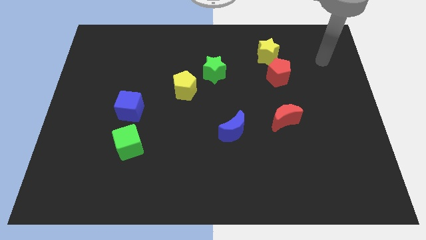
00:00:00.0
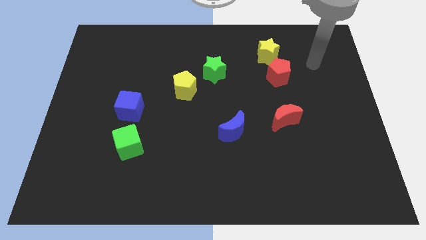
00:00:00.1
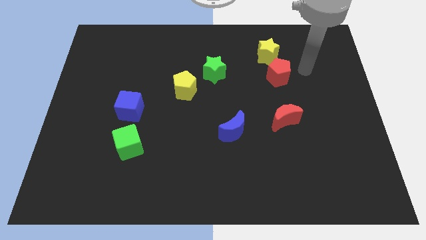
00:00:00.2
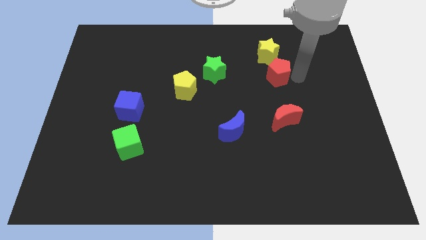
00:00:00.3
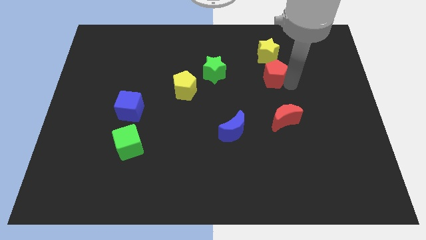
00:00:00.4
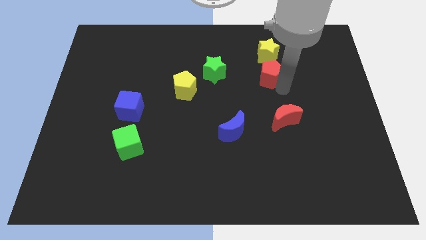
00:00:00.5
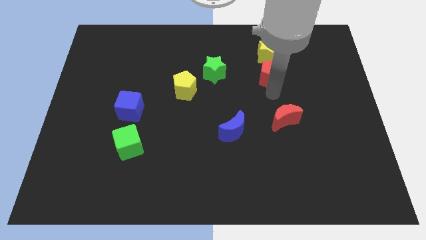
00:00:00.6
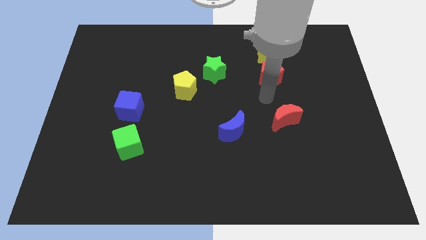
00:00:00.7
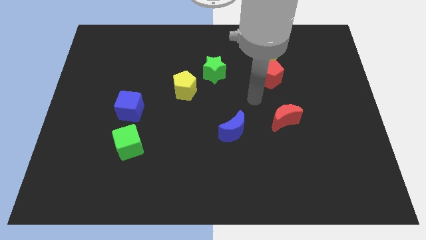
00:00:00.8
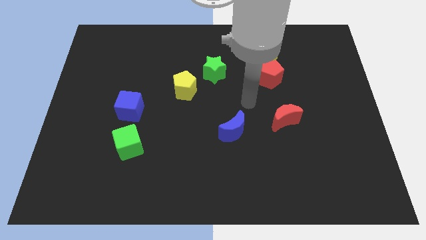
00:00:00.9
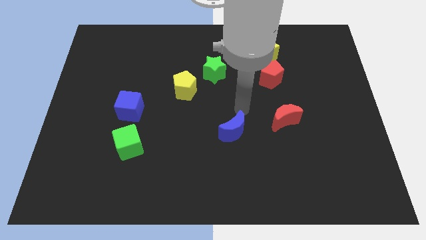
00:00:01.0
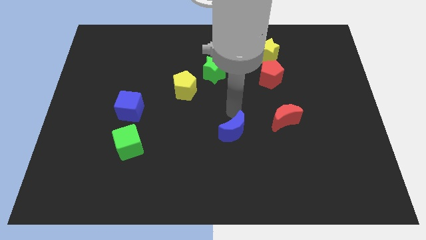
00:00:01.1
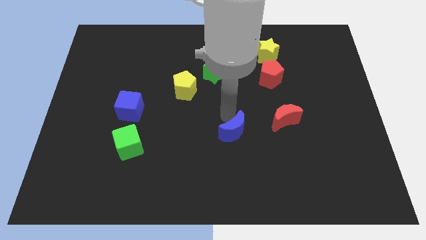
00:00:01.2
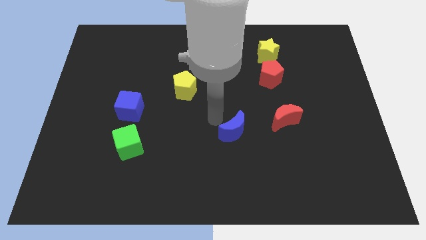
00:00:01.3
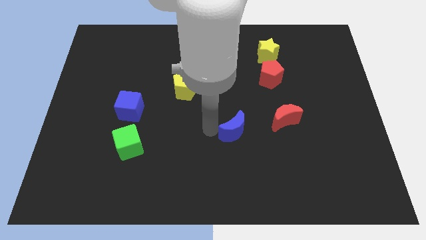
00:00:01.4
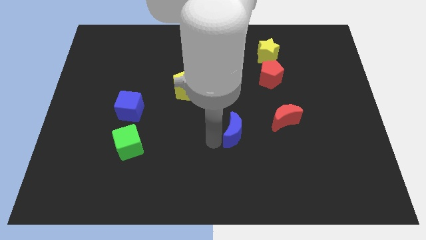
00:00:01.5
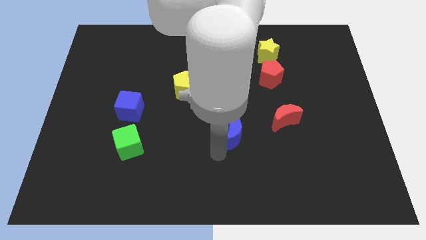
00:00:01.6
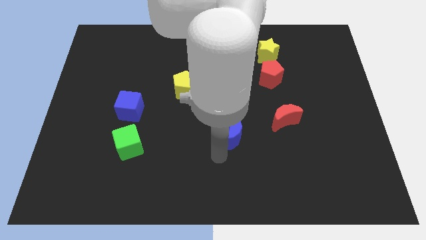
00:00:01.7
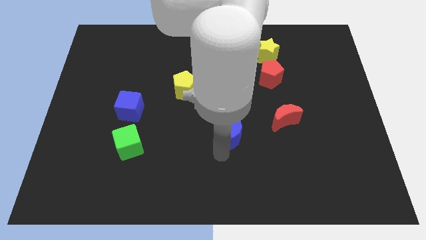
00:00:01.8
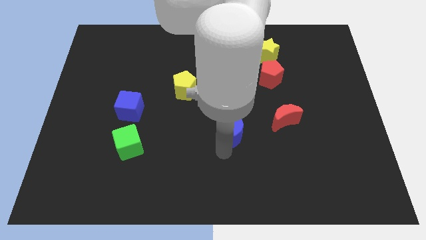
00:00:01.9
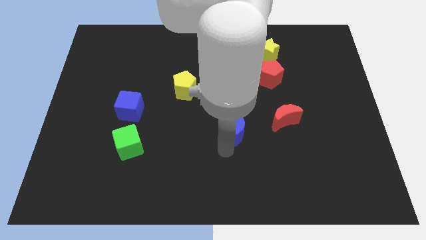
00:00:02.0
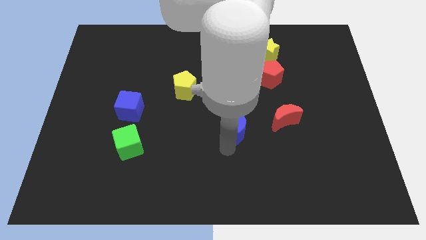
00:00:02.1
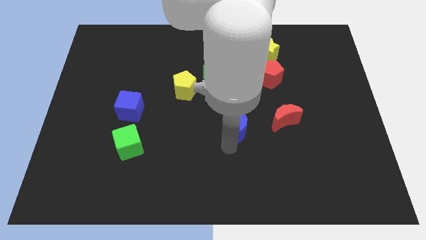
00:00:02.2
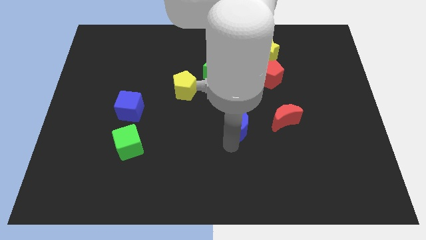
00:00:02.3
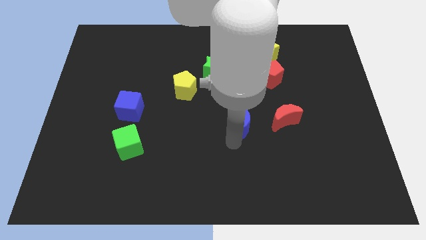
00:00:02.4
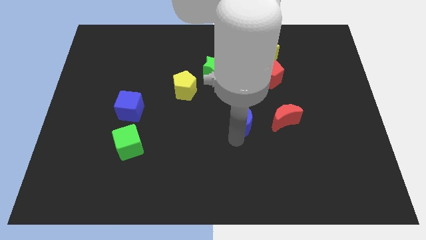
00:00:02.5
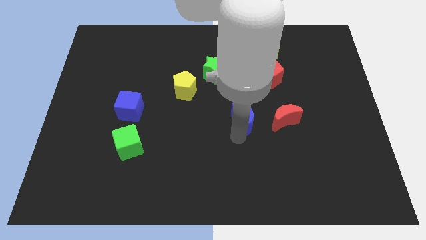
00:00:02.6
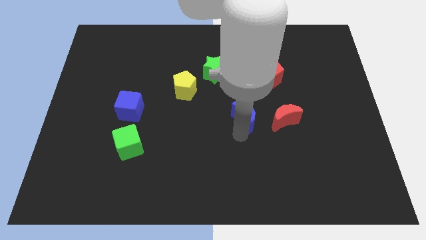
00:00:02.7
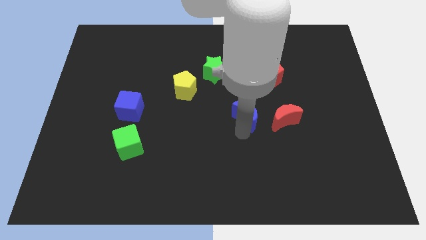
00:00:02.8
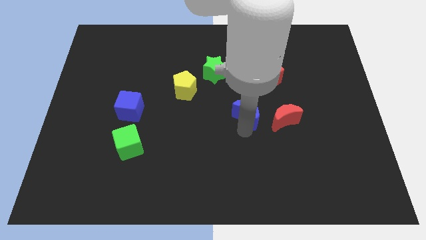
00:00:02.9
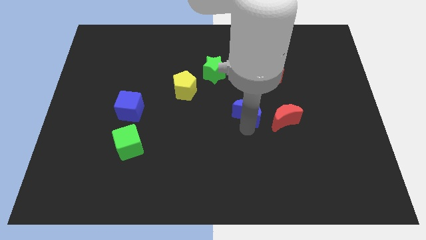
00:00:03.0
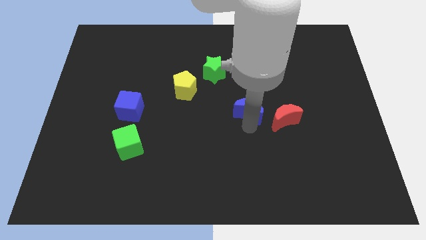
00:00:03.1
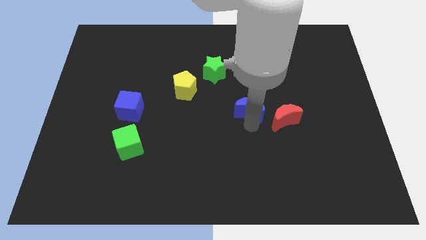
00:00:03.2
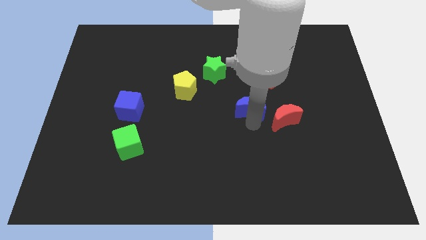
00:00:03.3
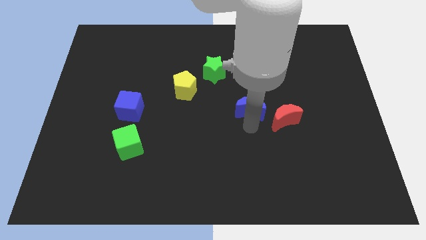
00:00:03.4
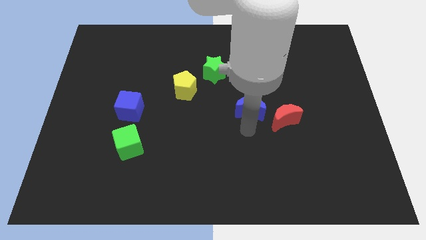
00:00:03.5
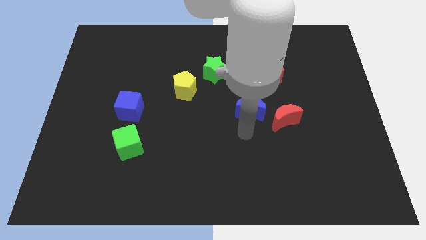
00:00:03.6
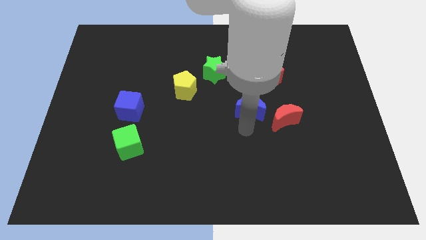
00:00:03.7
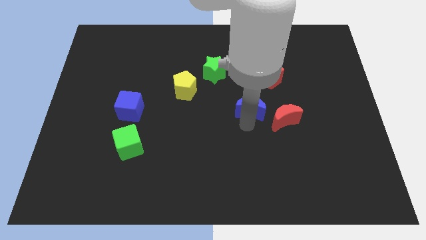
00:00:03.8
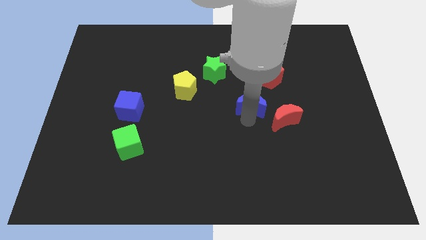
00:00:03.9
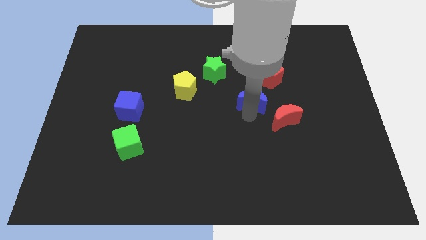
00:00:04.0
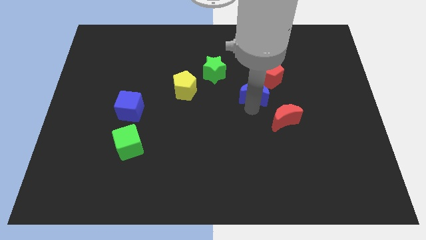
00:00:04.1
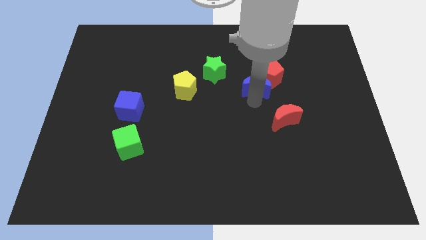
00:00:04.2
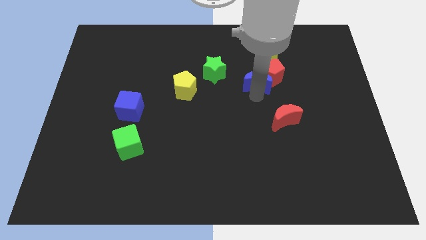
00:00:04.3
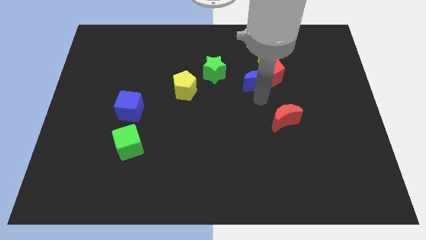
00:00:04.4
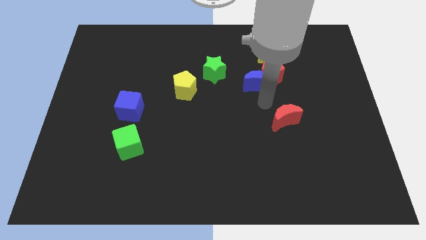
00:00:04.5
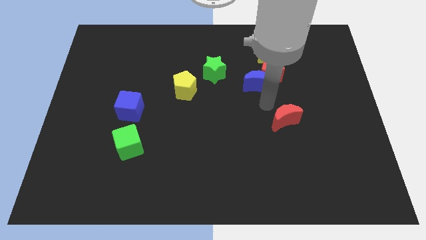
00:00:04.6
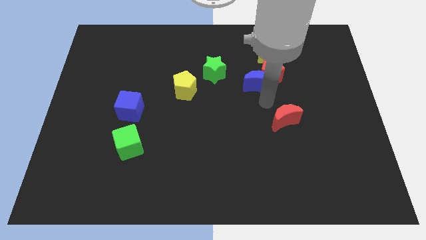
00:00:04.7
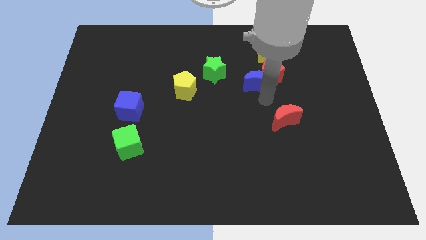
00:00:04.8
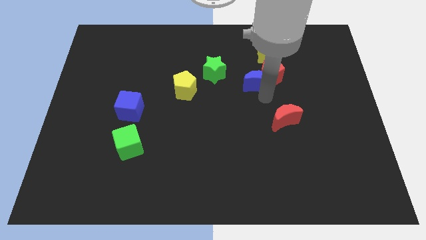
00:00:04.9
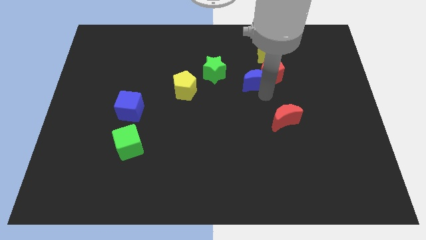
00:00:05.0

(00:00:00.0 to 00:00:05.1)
push the blue moon diagonally down and to the left of the yellow star

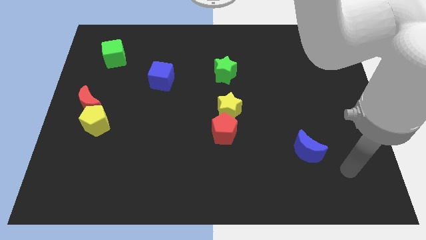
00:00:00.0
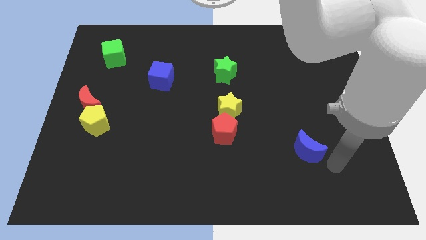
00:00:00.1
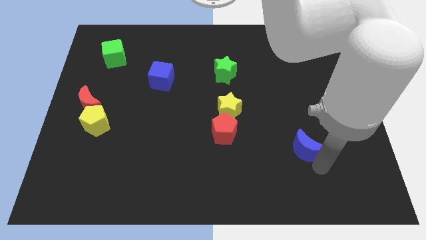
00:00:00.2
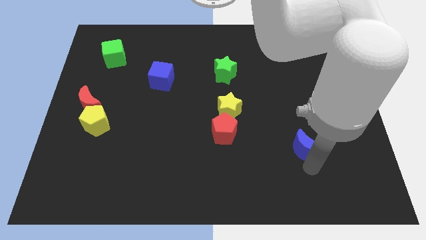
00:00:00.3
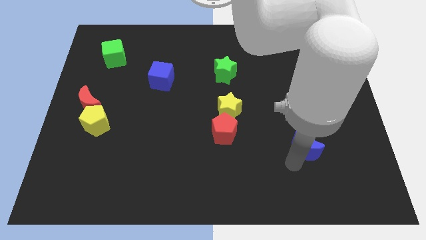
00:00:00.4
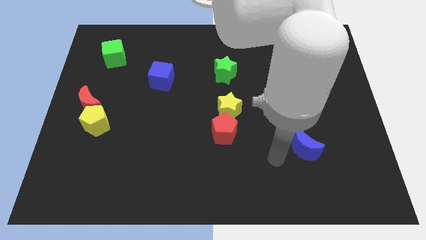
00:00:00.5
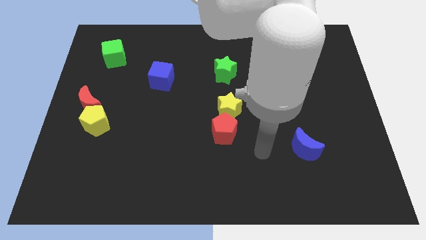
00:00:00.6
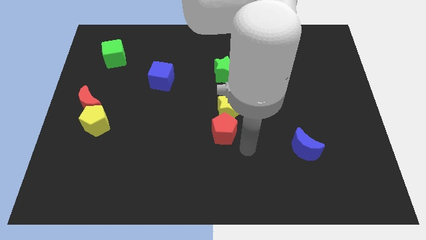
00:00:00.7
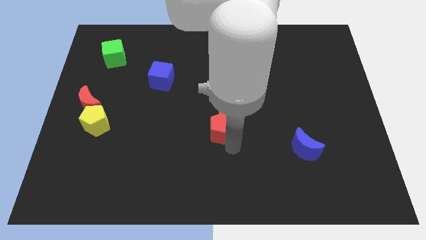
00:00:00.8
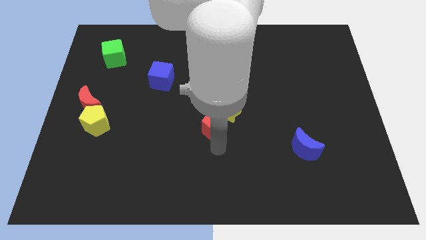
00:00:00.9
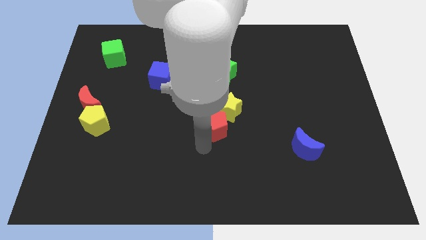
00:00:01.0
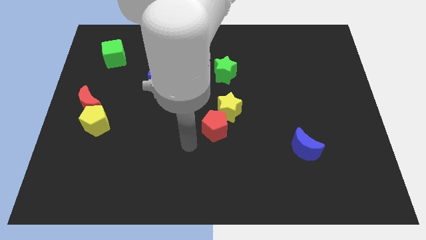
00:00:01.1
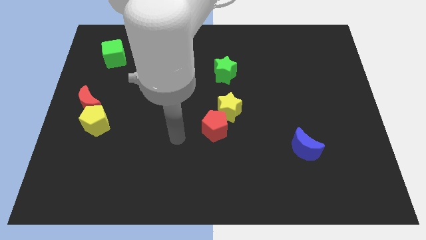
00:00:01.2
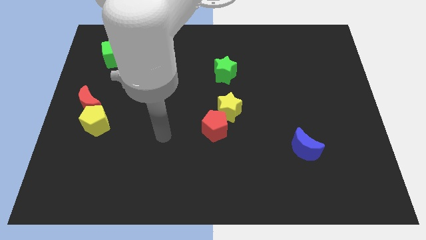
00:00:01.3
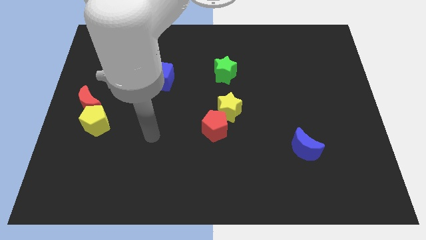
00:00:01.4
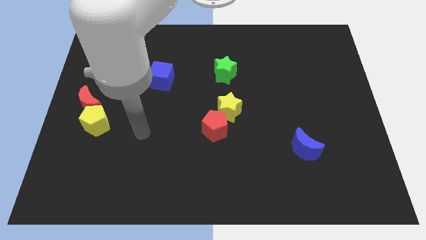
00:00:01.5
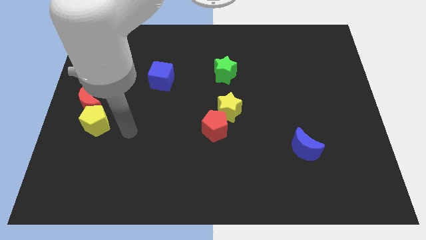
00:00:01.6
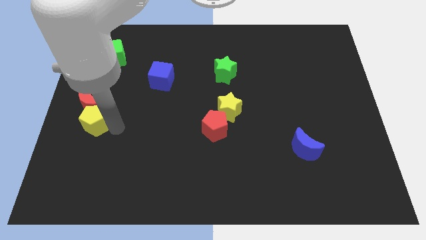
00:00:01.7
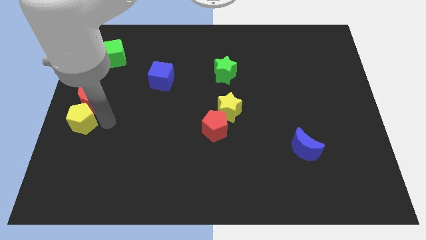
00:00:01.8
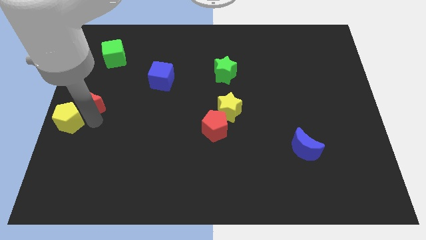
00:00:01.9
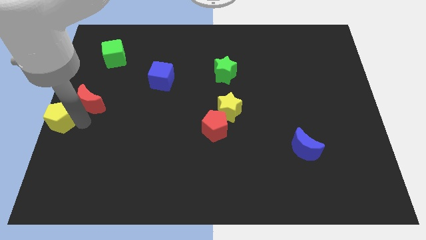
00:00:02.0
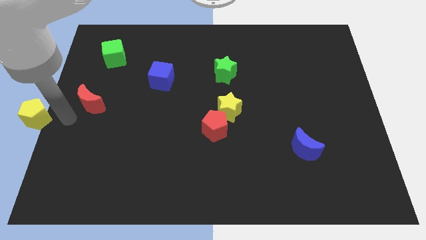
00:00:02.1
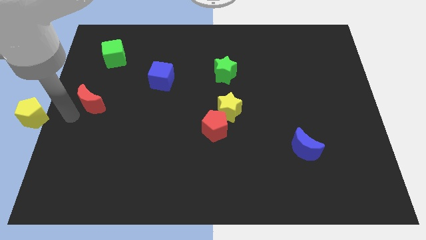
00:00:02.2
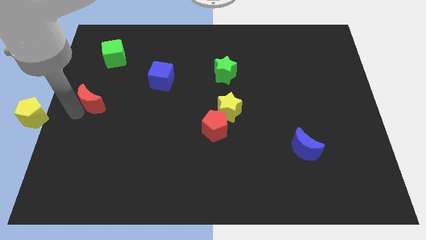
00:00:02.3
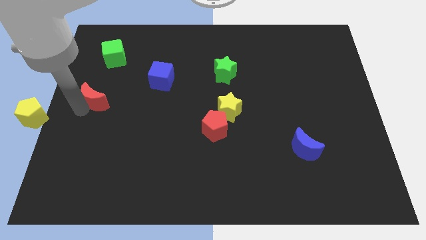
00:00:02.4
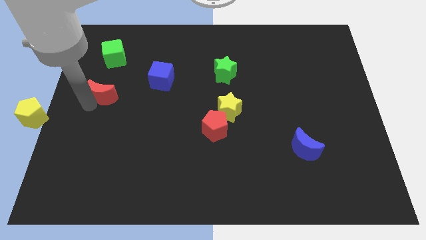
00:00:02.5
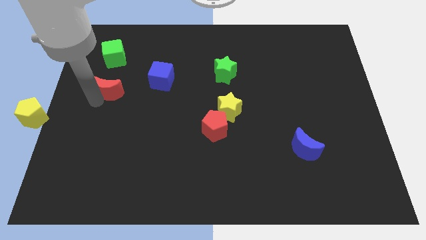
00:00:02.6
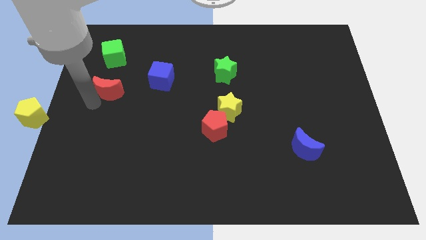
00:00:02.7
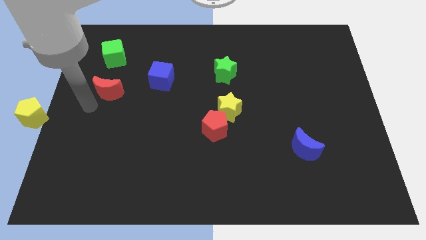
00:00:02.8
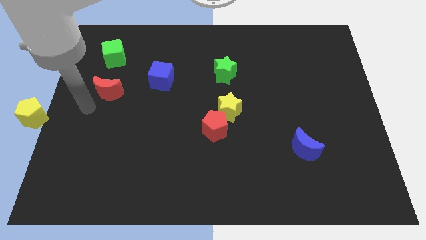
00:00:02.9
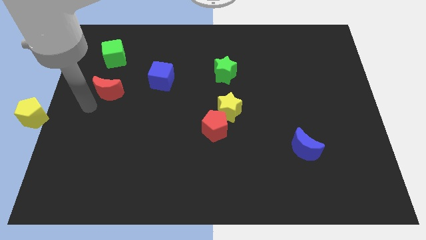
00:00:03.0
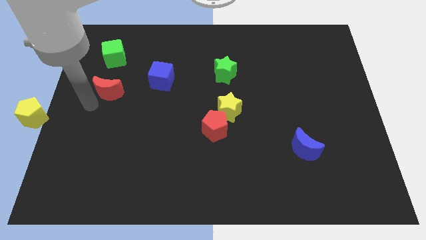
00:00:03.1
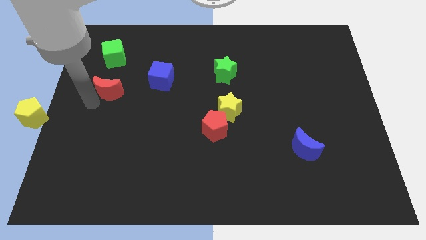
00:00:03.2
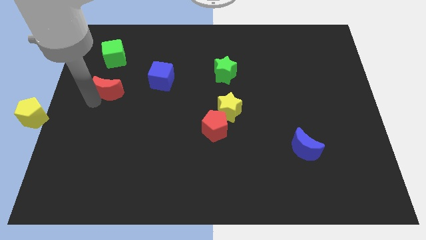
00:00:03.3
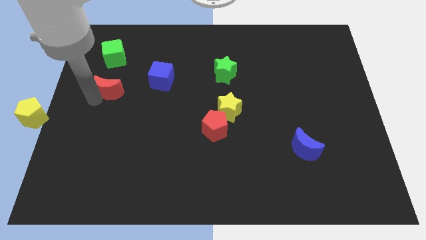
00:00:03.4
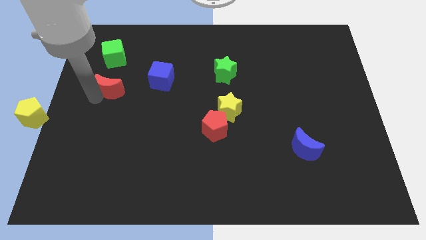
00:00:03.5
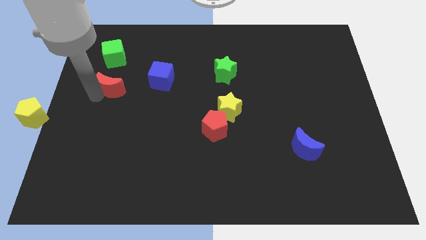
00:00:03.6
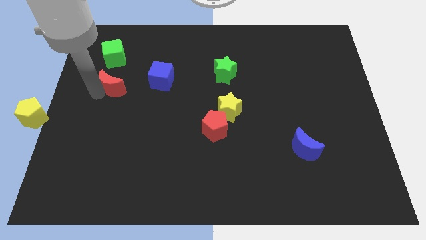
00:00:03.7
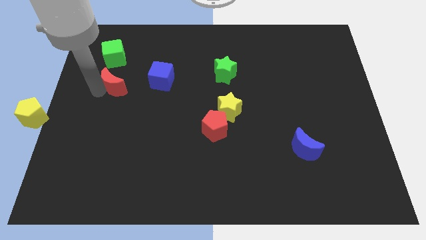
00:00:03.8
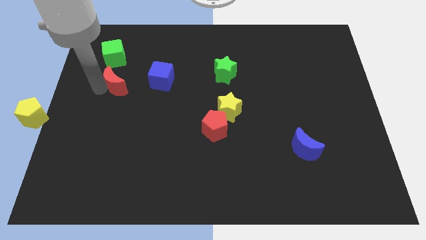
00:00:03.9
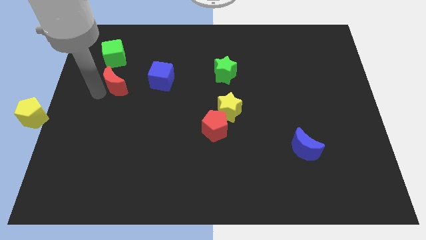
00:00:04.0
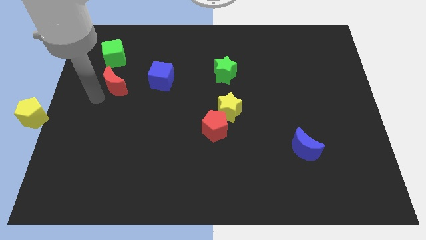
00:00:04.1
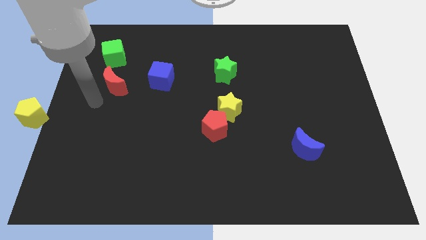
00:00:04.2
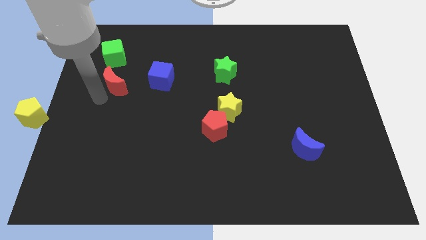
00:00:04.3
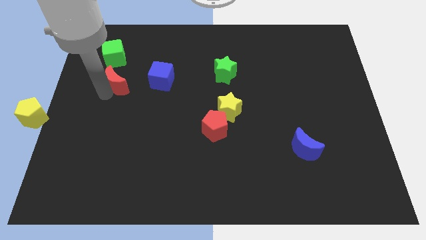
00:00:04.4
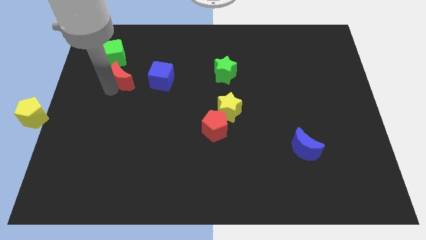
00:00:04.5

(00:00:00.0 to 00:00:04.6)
move the red moon to the bottom right of the green cube
